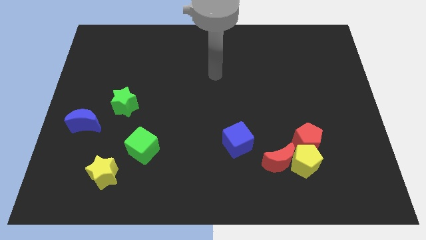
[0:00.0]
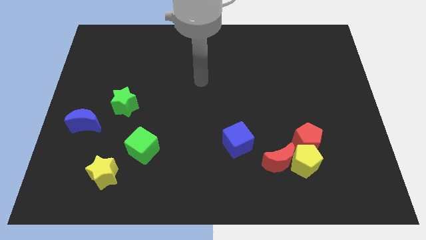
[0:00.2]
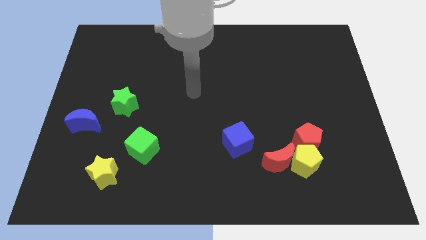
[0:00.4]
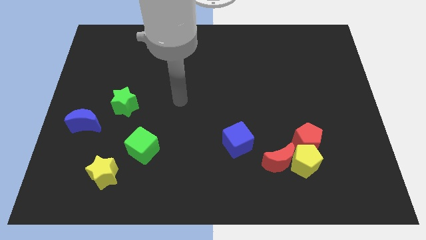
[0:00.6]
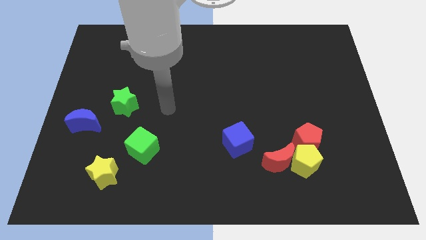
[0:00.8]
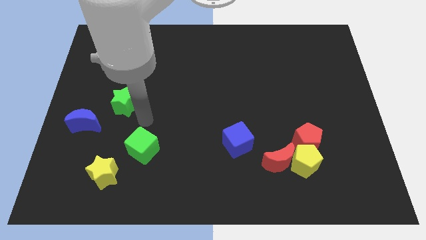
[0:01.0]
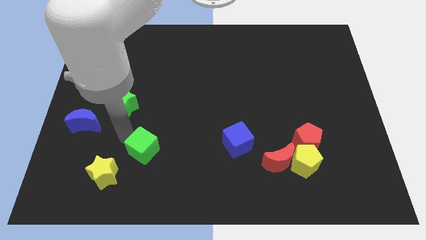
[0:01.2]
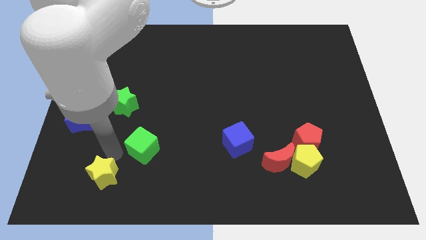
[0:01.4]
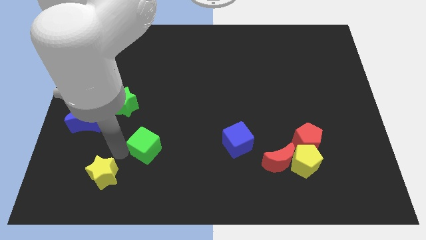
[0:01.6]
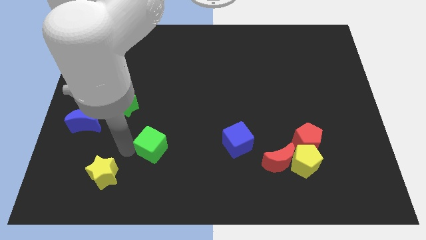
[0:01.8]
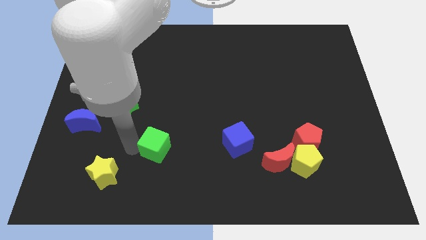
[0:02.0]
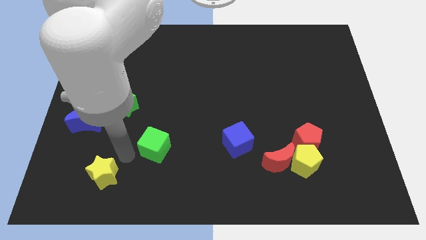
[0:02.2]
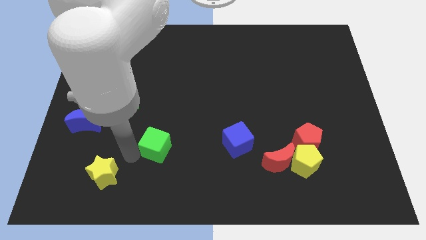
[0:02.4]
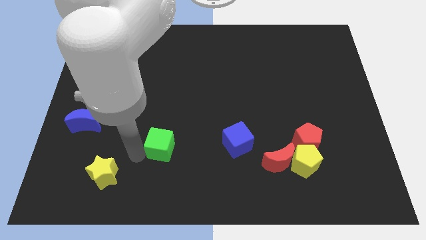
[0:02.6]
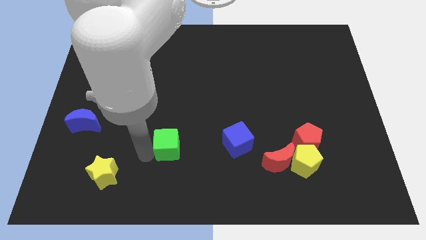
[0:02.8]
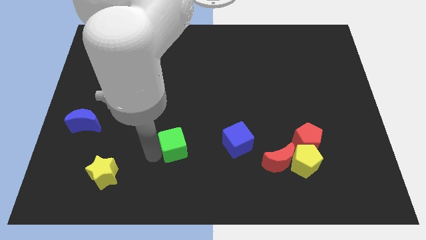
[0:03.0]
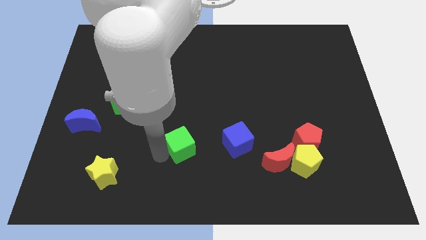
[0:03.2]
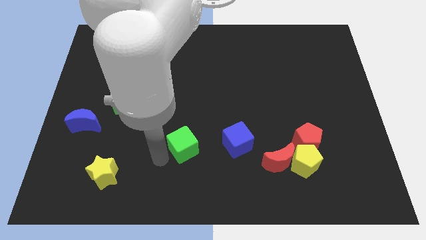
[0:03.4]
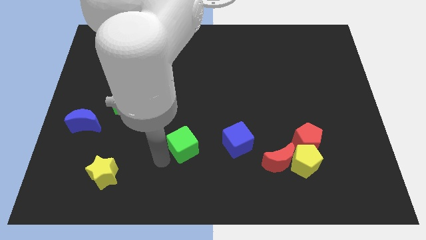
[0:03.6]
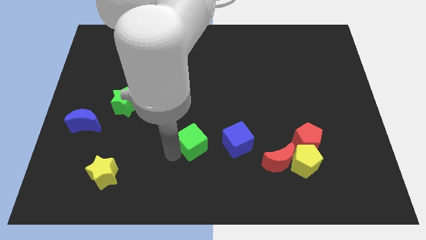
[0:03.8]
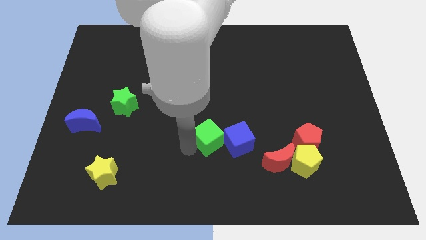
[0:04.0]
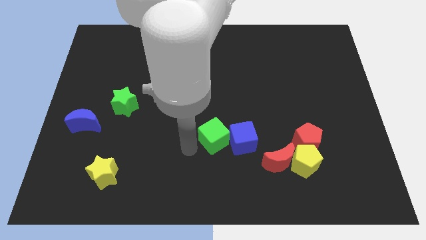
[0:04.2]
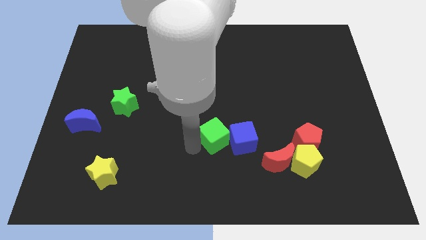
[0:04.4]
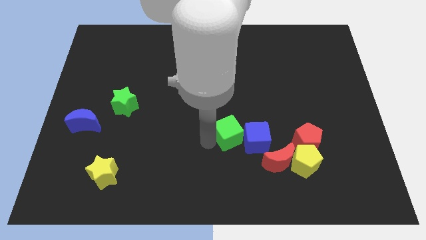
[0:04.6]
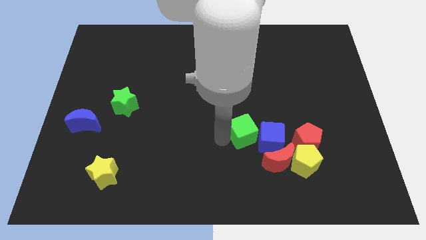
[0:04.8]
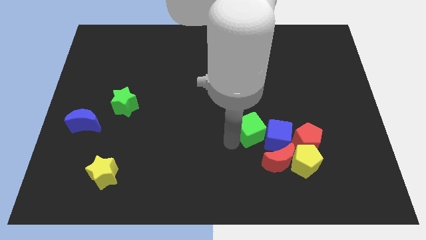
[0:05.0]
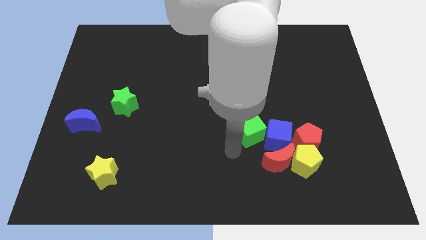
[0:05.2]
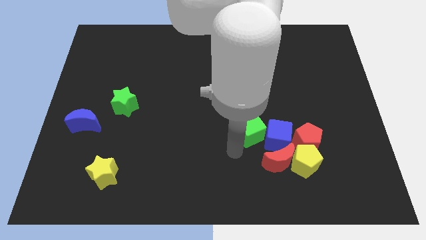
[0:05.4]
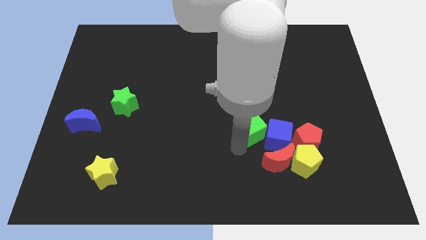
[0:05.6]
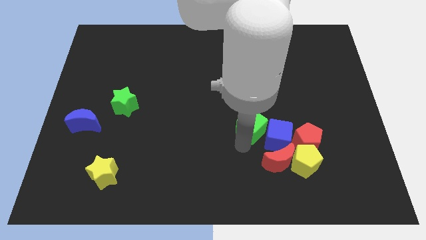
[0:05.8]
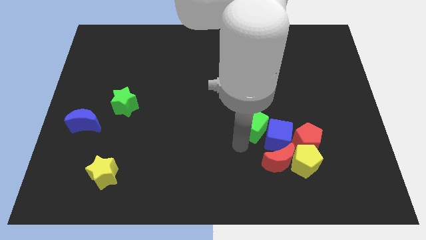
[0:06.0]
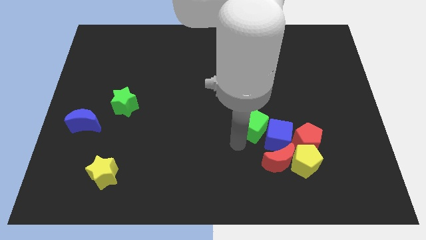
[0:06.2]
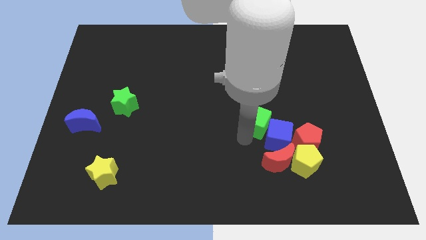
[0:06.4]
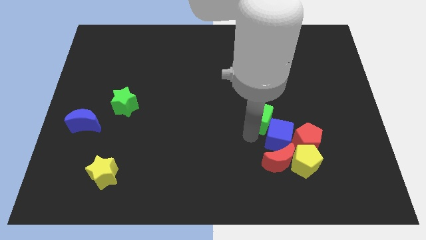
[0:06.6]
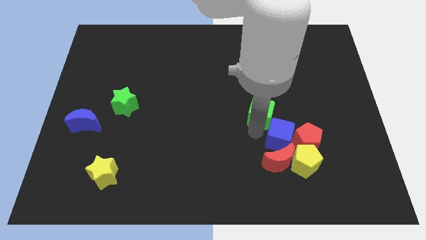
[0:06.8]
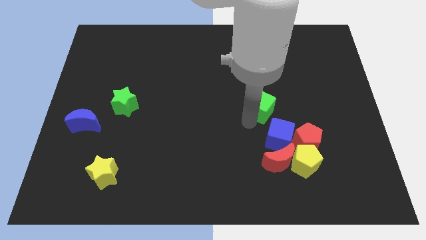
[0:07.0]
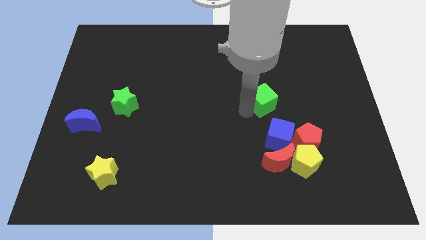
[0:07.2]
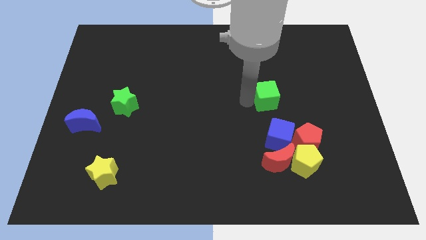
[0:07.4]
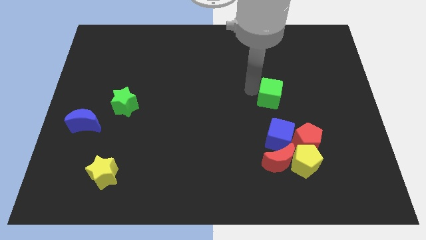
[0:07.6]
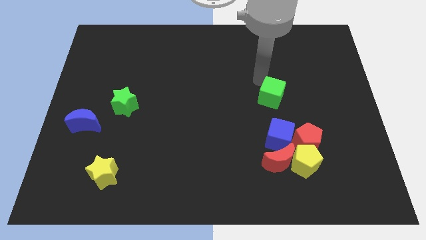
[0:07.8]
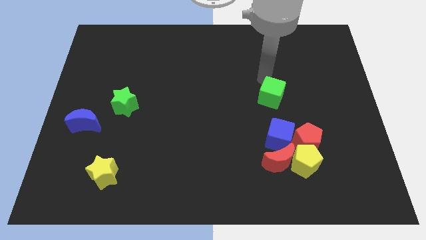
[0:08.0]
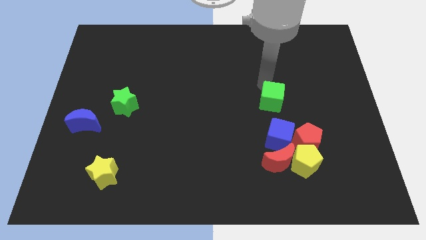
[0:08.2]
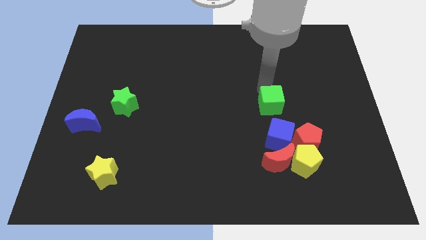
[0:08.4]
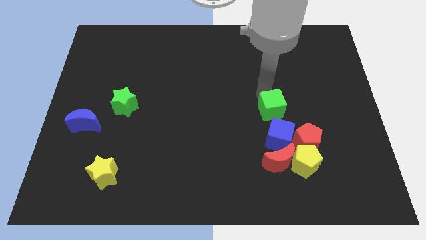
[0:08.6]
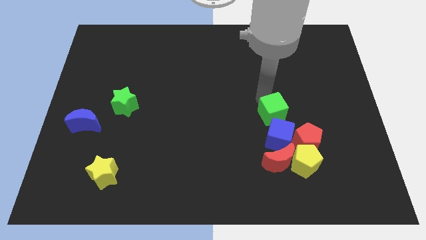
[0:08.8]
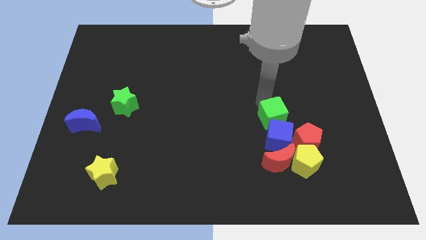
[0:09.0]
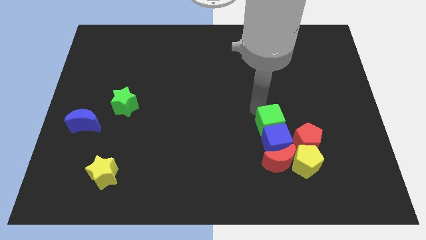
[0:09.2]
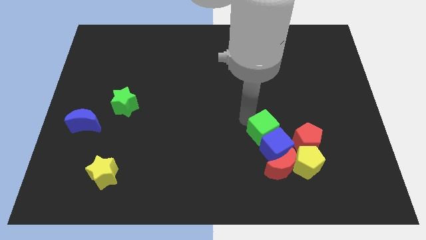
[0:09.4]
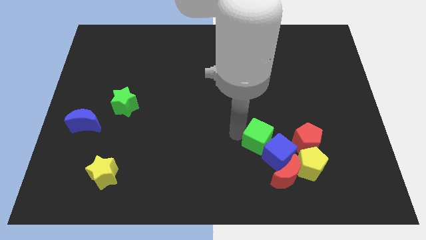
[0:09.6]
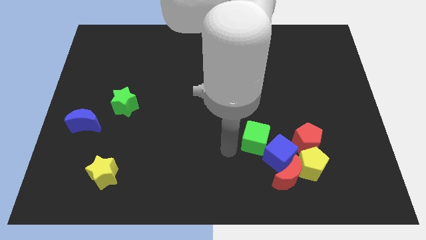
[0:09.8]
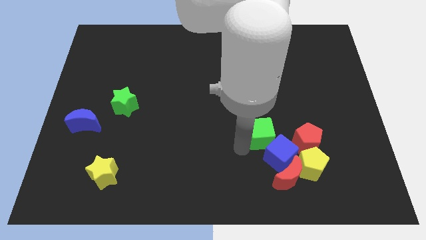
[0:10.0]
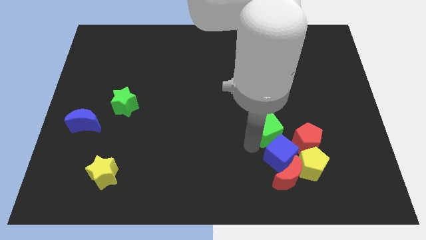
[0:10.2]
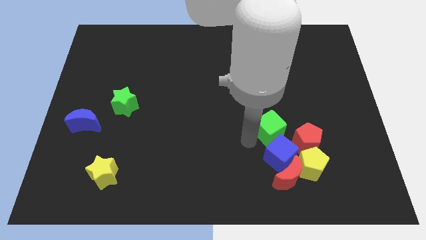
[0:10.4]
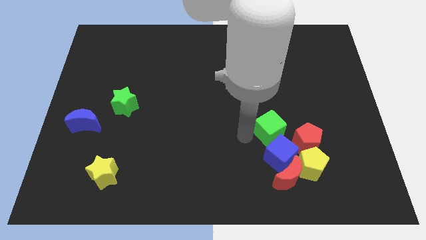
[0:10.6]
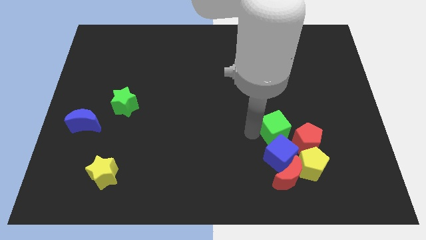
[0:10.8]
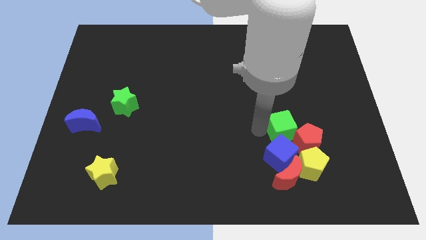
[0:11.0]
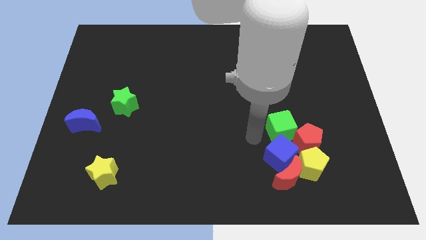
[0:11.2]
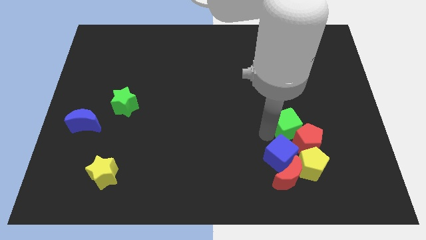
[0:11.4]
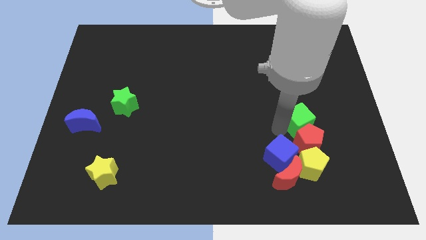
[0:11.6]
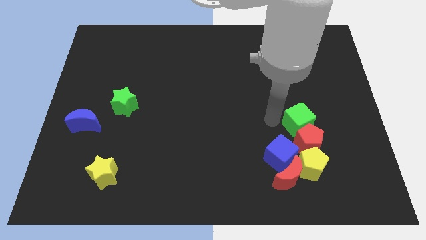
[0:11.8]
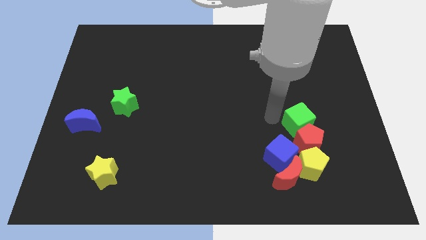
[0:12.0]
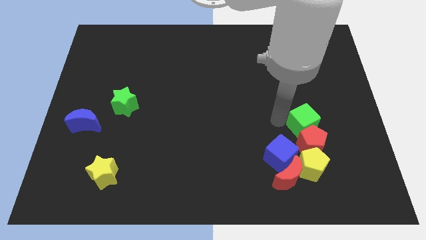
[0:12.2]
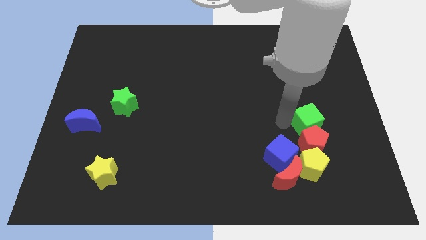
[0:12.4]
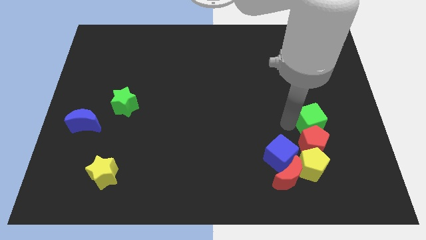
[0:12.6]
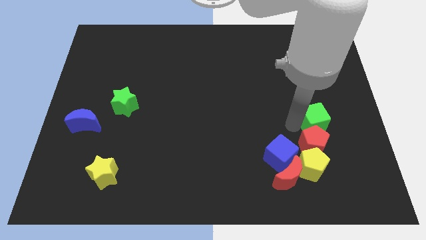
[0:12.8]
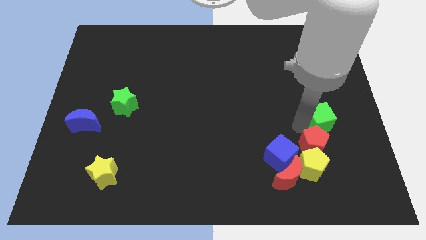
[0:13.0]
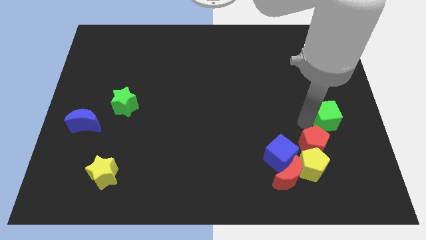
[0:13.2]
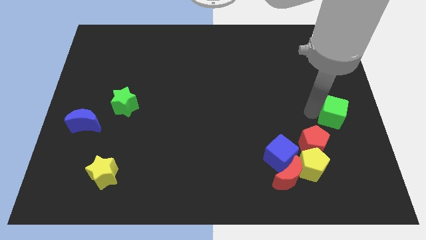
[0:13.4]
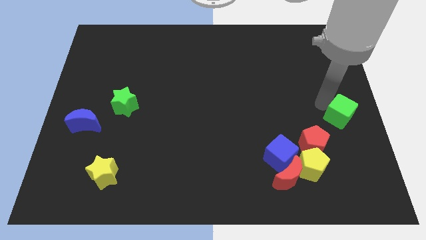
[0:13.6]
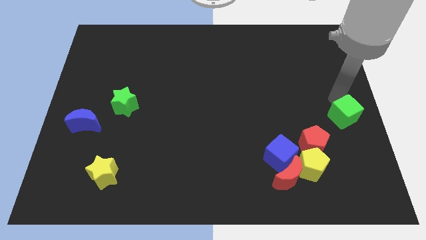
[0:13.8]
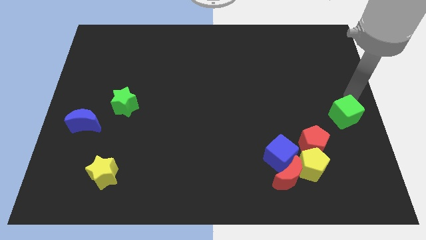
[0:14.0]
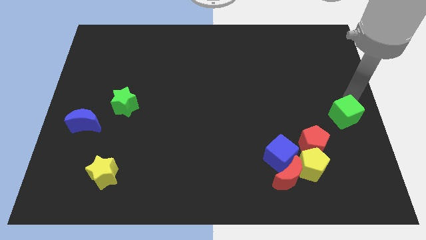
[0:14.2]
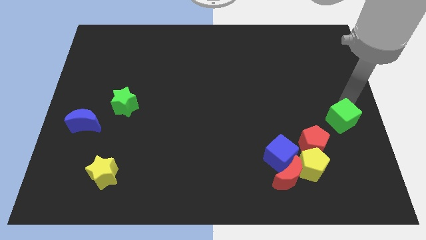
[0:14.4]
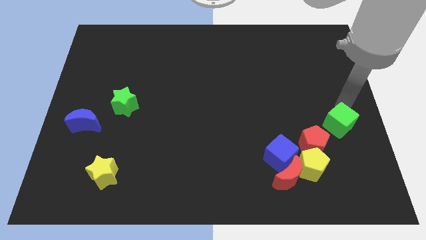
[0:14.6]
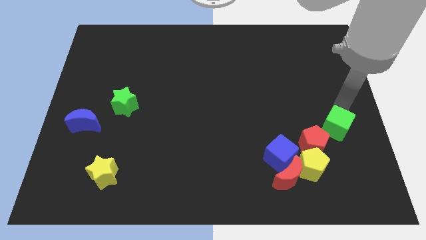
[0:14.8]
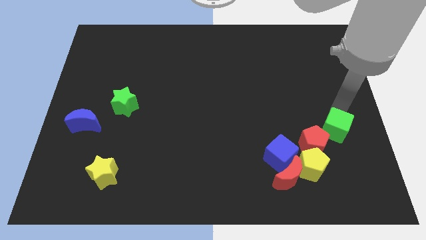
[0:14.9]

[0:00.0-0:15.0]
move the green cube diagonally up and to the right of the yellow pentagon

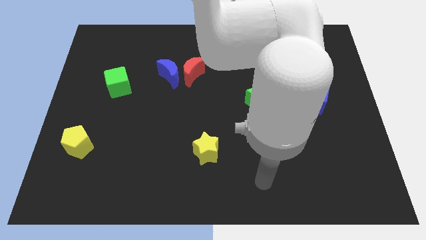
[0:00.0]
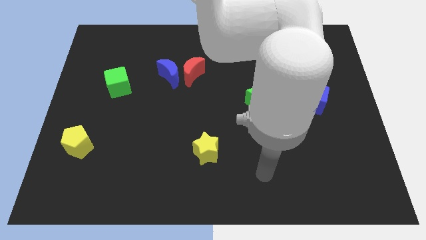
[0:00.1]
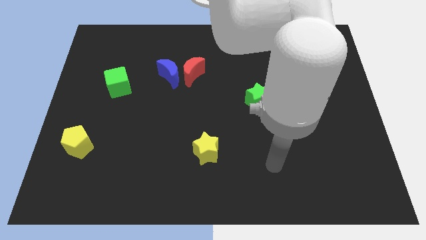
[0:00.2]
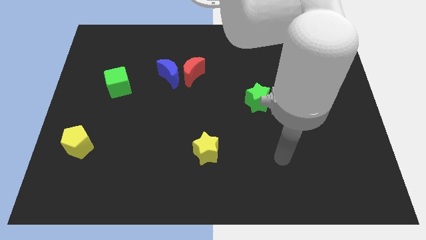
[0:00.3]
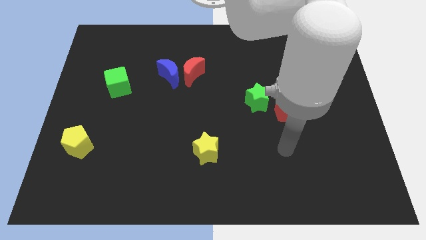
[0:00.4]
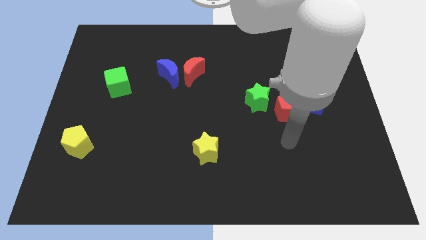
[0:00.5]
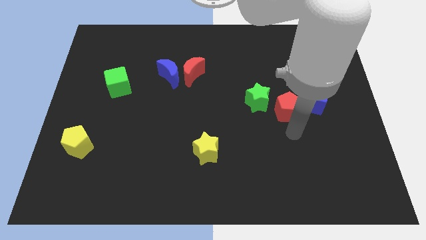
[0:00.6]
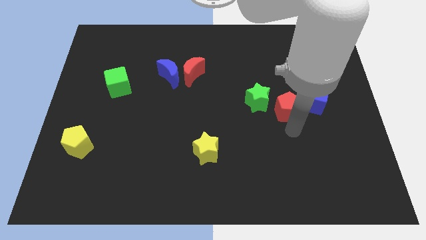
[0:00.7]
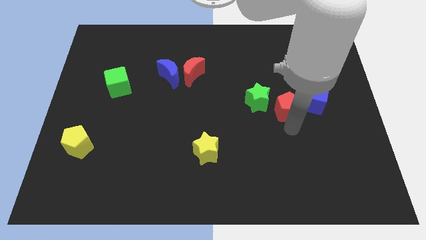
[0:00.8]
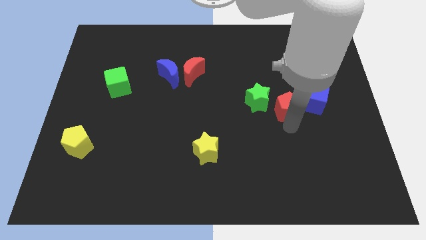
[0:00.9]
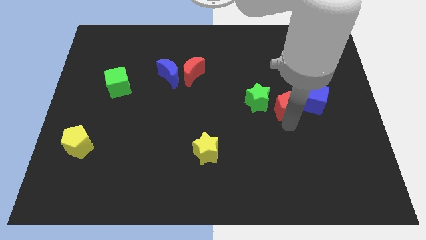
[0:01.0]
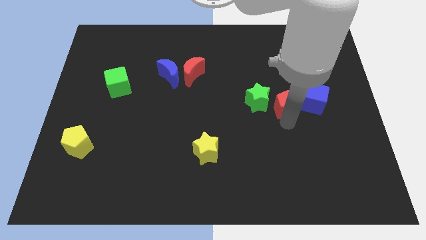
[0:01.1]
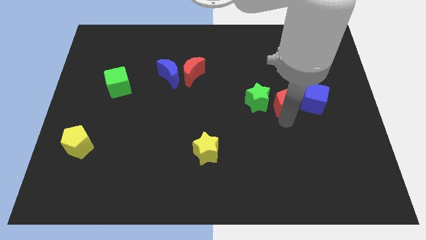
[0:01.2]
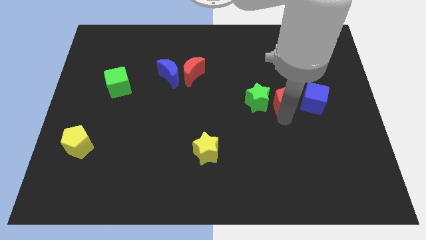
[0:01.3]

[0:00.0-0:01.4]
slide the red pentagon to the top right of the green star
